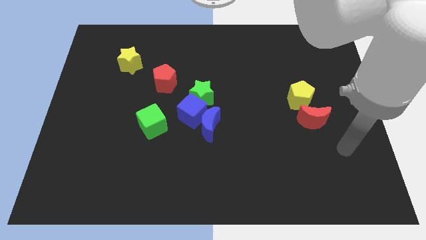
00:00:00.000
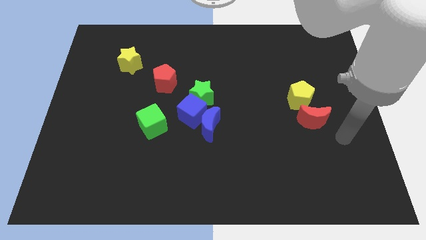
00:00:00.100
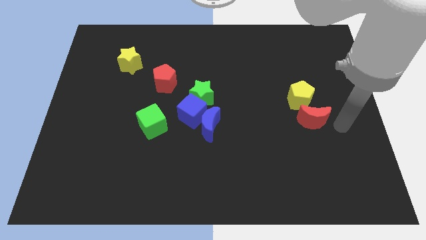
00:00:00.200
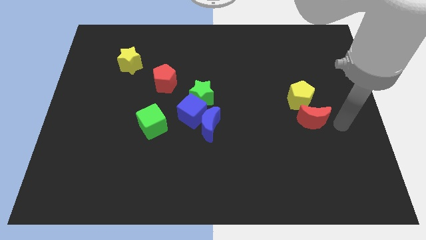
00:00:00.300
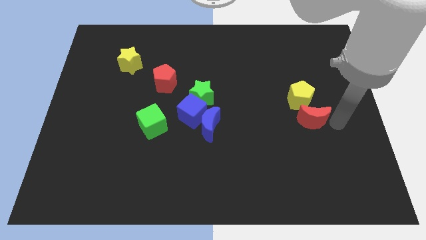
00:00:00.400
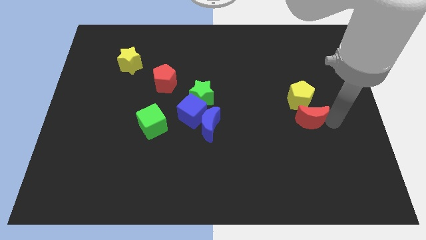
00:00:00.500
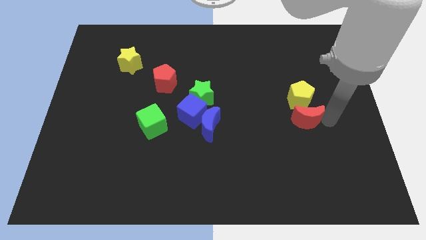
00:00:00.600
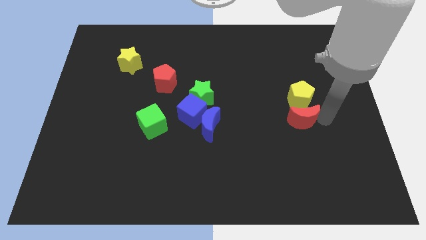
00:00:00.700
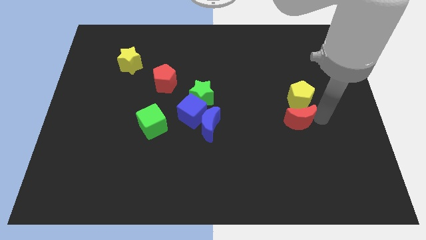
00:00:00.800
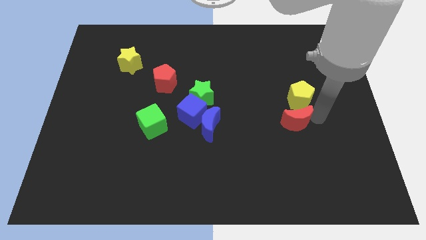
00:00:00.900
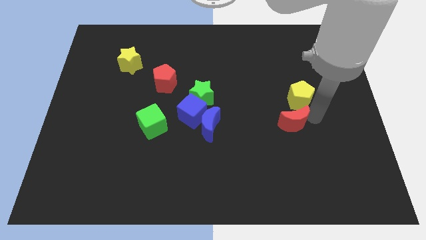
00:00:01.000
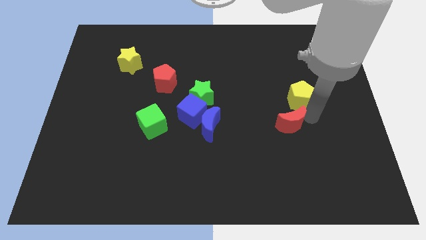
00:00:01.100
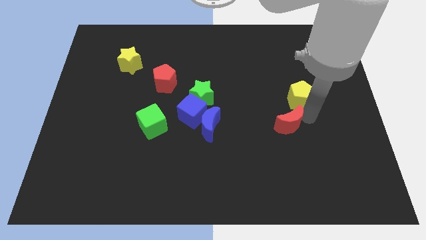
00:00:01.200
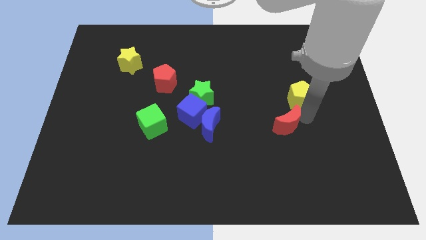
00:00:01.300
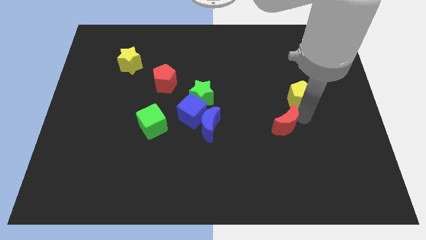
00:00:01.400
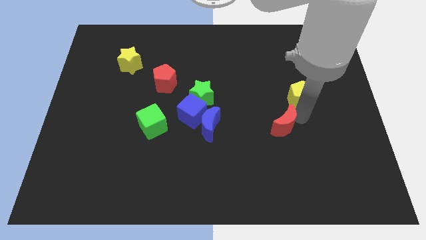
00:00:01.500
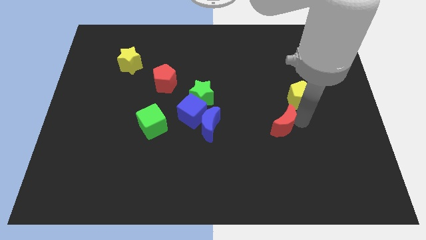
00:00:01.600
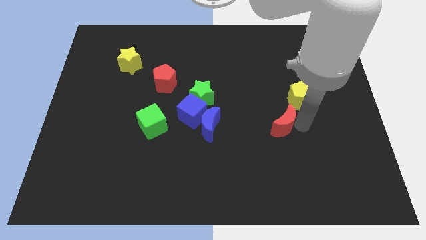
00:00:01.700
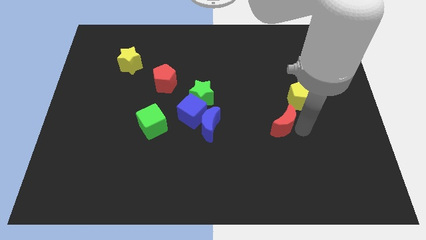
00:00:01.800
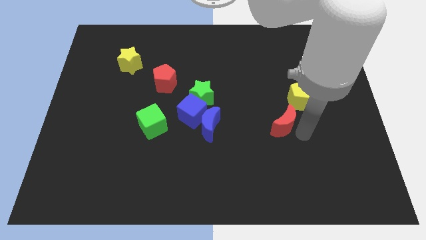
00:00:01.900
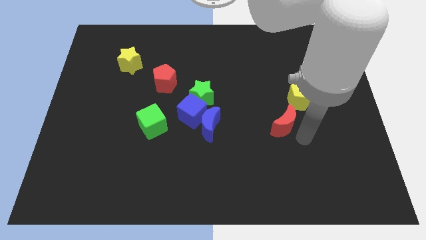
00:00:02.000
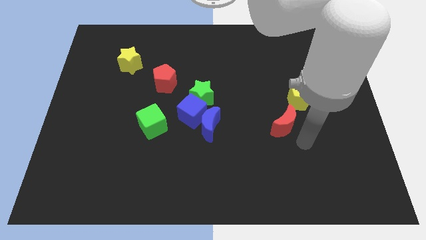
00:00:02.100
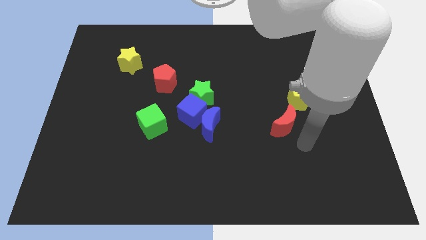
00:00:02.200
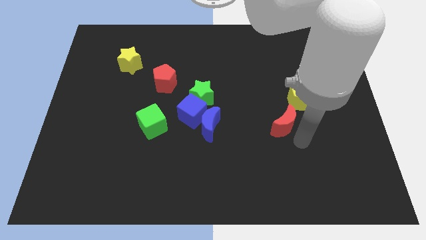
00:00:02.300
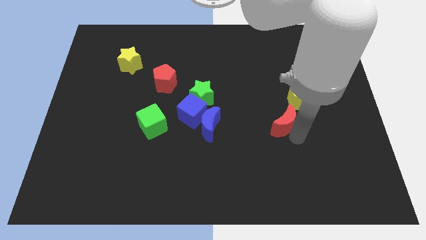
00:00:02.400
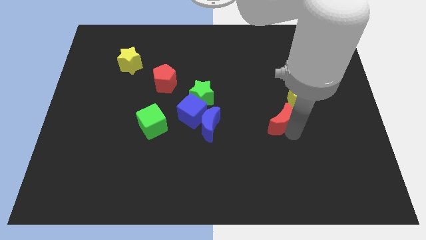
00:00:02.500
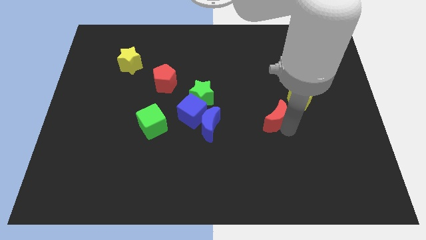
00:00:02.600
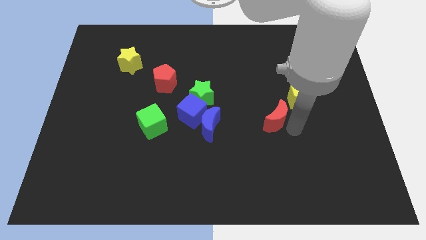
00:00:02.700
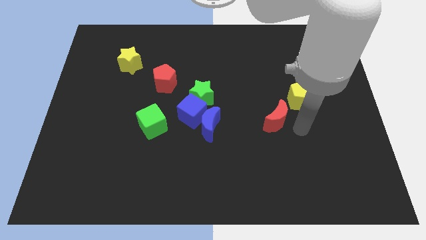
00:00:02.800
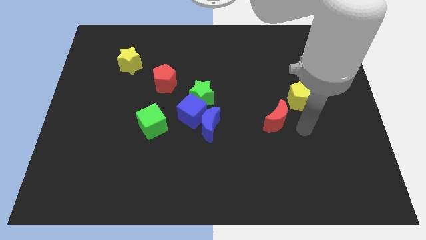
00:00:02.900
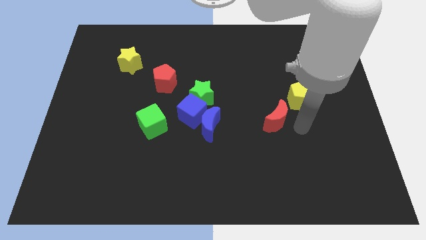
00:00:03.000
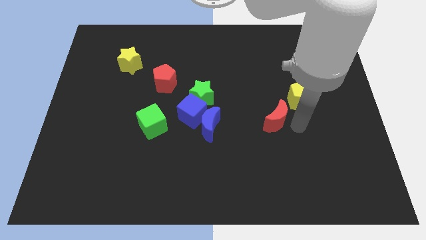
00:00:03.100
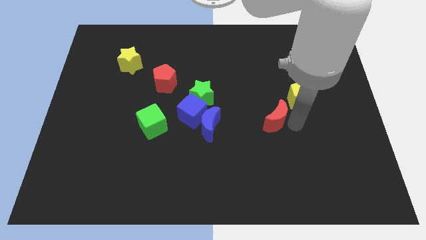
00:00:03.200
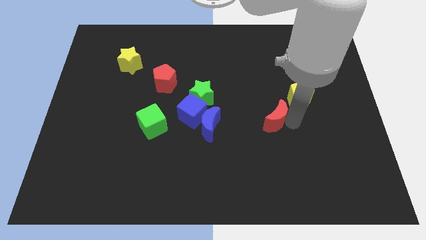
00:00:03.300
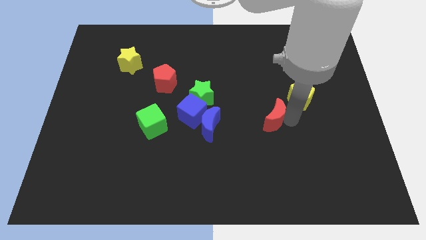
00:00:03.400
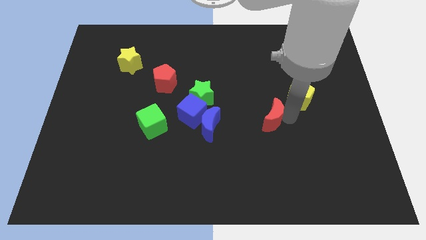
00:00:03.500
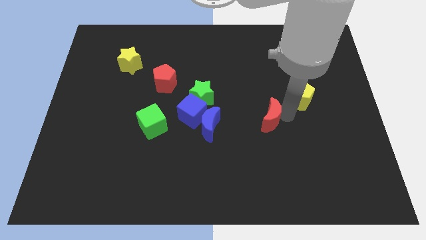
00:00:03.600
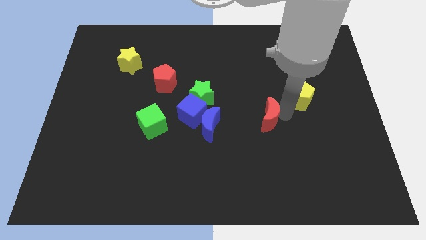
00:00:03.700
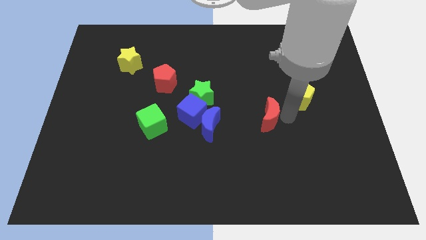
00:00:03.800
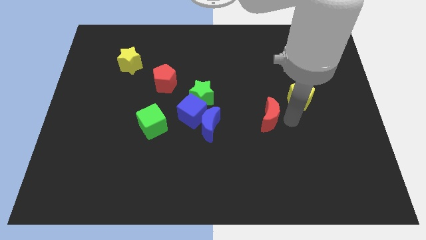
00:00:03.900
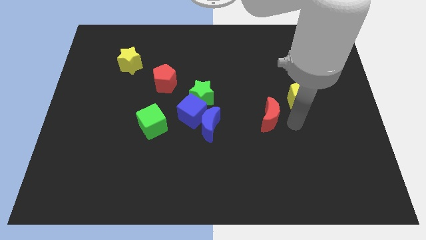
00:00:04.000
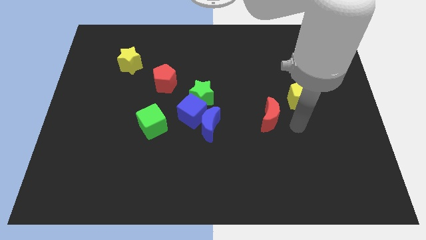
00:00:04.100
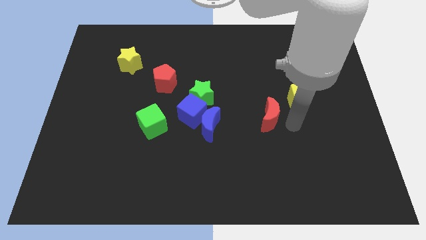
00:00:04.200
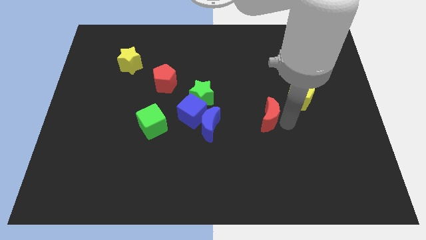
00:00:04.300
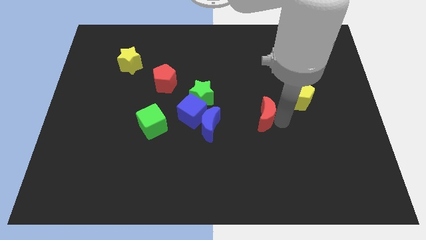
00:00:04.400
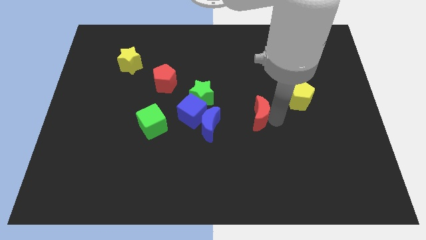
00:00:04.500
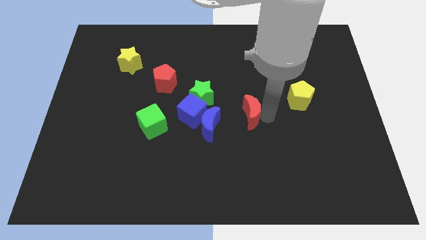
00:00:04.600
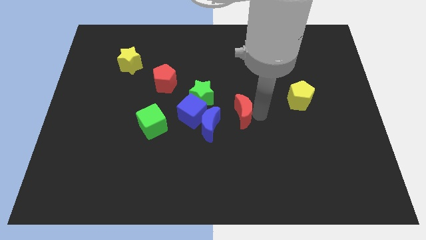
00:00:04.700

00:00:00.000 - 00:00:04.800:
put the red moon diagonally down and to the right of the green star

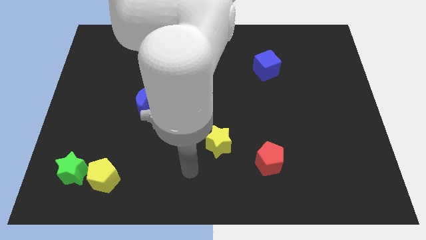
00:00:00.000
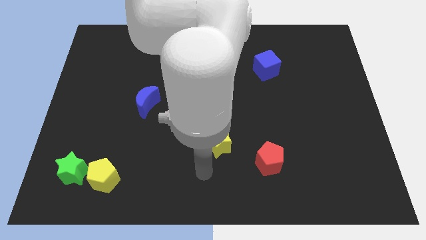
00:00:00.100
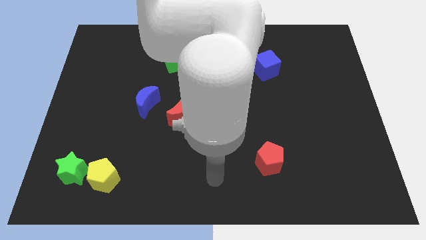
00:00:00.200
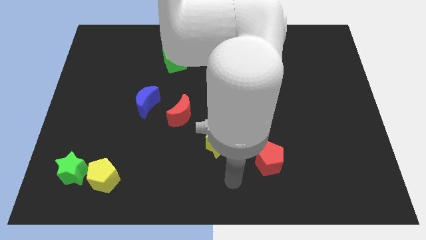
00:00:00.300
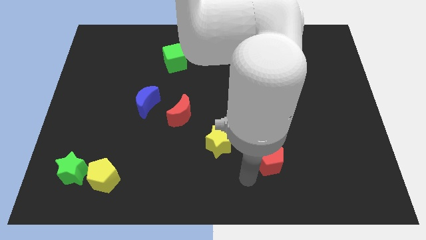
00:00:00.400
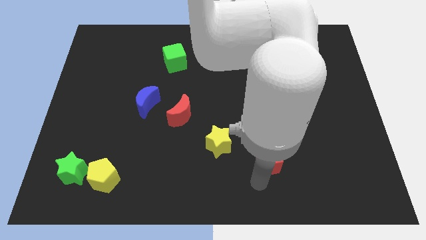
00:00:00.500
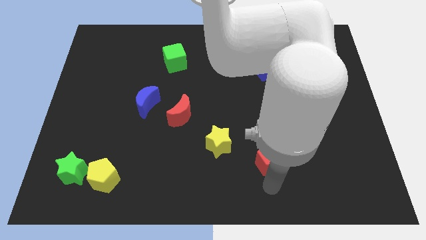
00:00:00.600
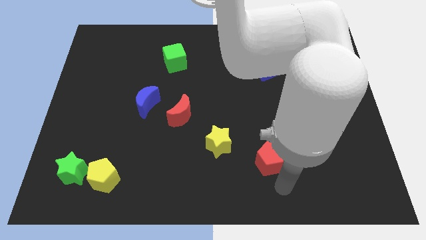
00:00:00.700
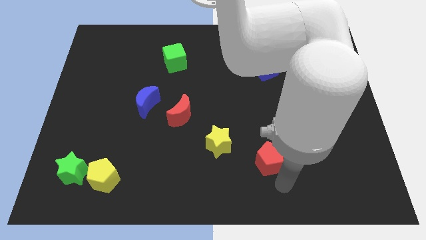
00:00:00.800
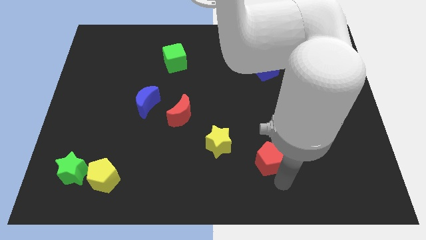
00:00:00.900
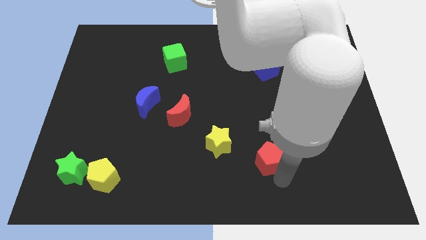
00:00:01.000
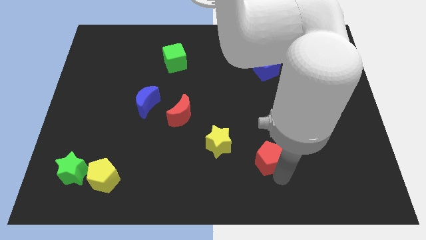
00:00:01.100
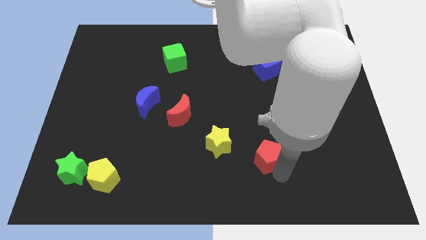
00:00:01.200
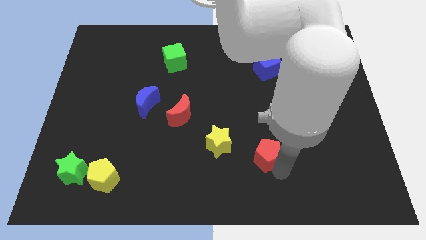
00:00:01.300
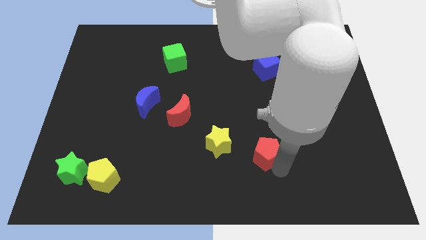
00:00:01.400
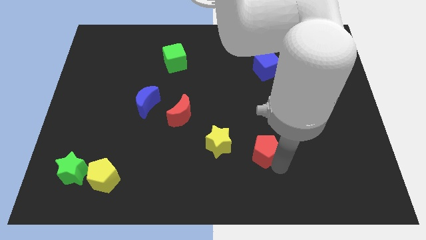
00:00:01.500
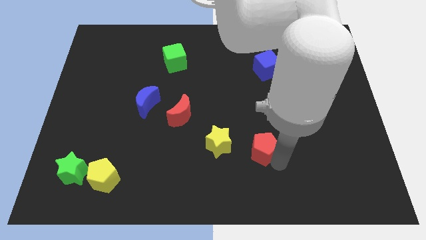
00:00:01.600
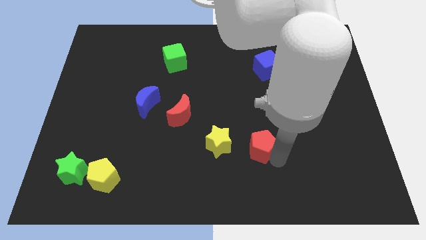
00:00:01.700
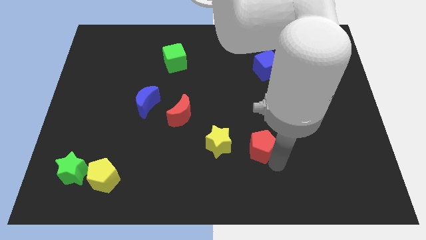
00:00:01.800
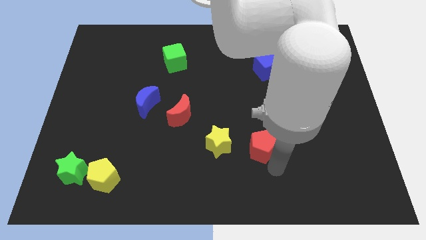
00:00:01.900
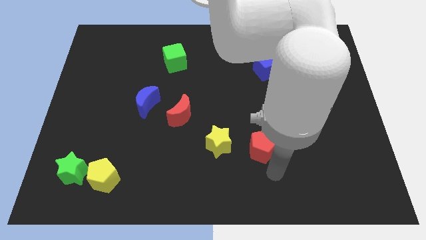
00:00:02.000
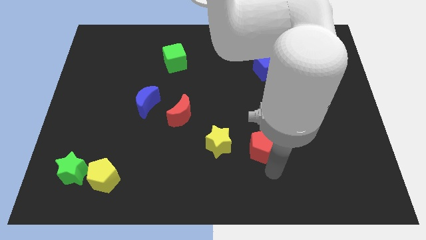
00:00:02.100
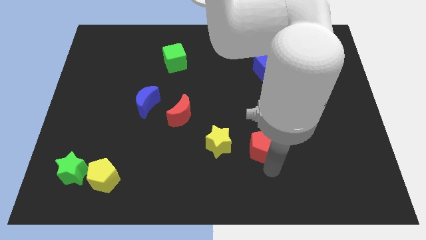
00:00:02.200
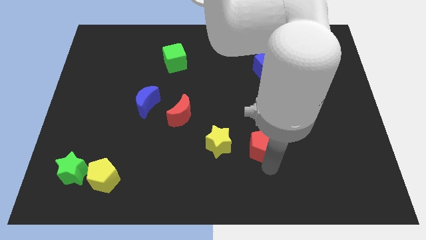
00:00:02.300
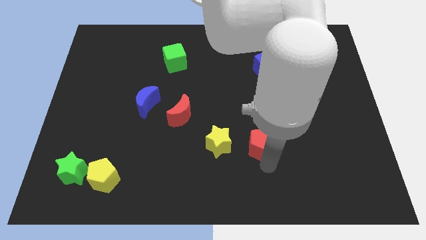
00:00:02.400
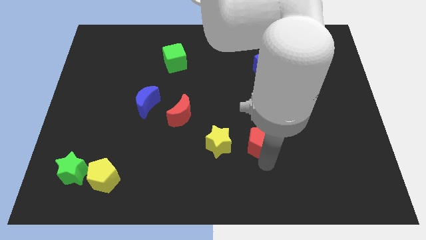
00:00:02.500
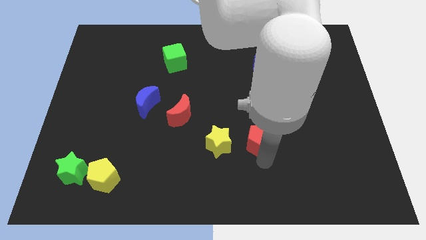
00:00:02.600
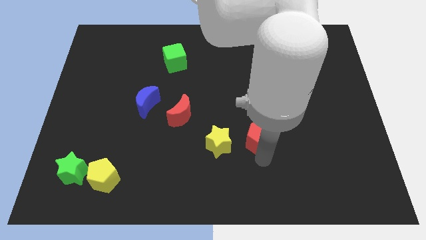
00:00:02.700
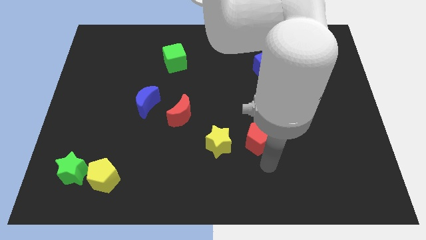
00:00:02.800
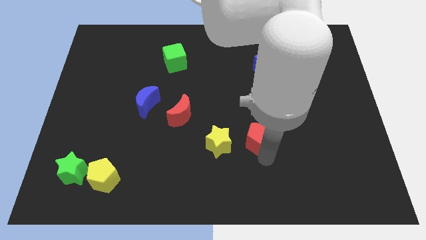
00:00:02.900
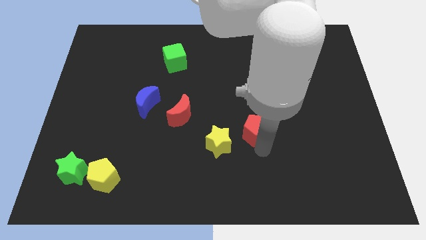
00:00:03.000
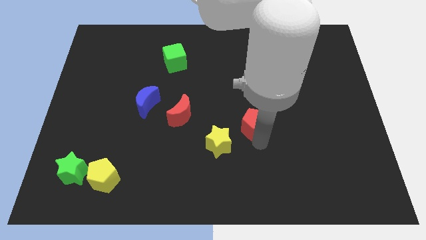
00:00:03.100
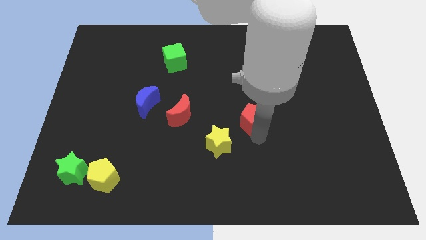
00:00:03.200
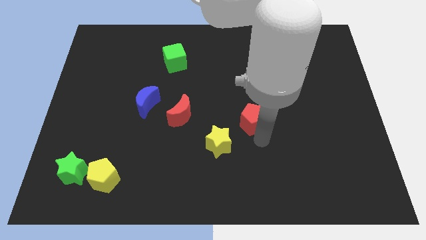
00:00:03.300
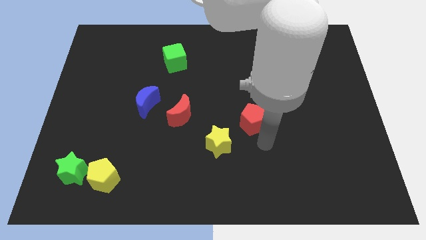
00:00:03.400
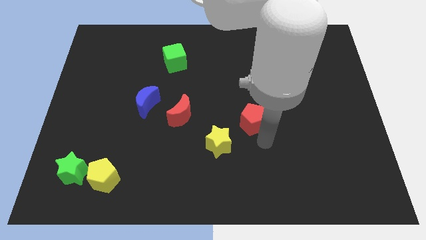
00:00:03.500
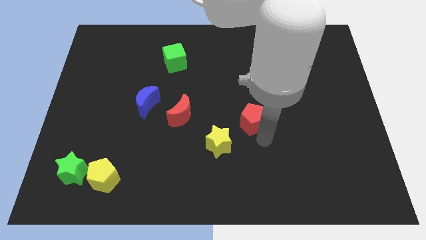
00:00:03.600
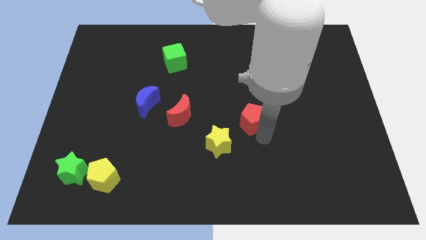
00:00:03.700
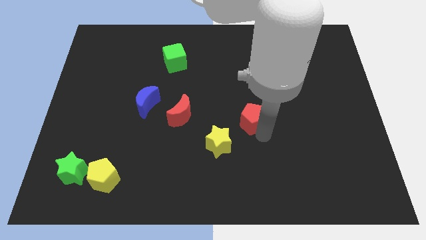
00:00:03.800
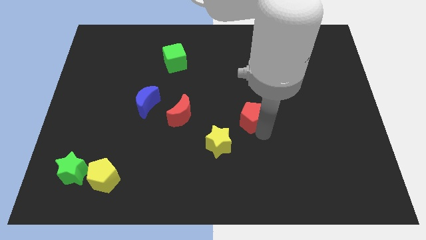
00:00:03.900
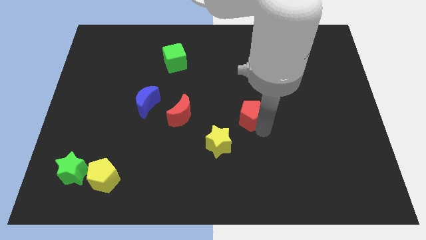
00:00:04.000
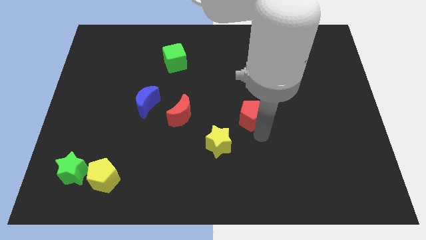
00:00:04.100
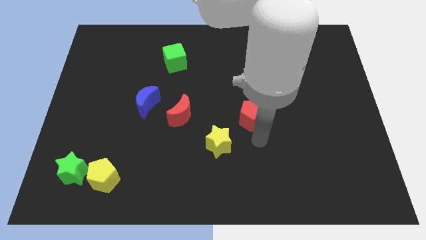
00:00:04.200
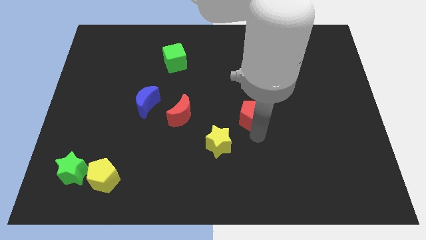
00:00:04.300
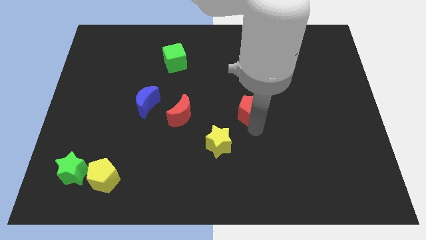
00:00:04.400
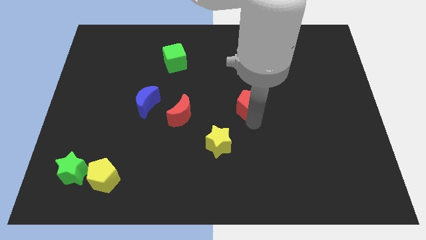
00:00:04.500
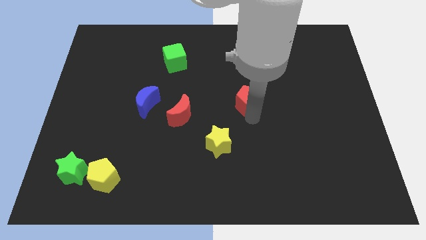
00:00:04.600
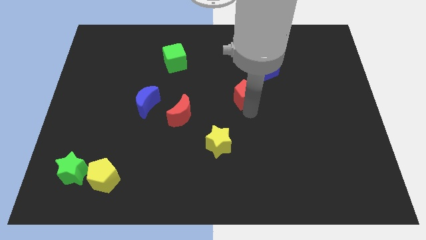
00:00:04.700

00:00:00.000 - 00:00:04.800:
slide the red pentagon diagonally down and to the left of the blue cube
